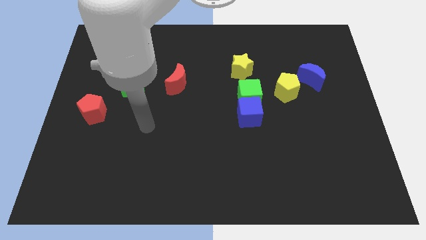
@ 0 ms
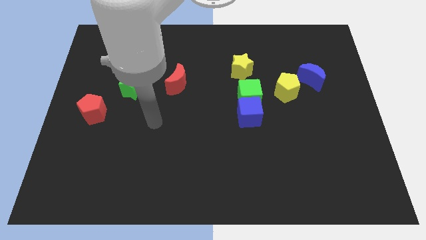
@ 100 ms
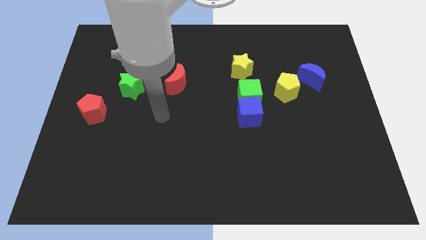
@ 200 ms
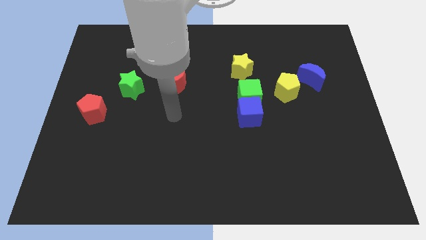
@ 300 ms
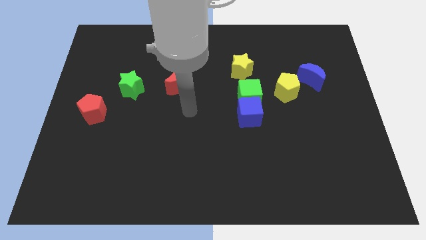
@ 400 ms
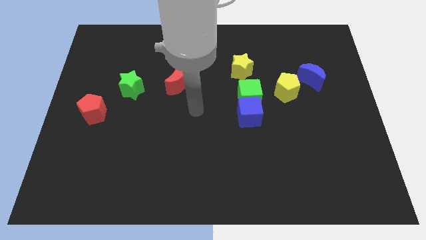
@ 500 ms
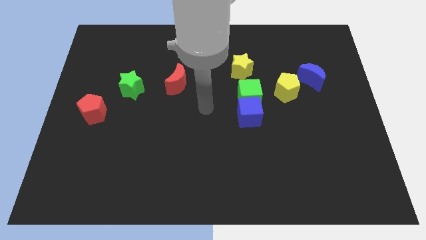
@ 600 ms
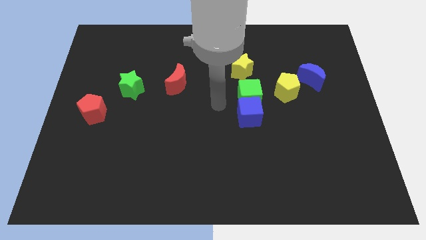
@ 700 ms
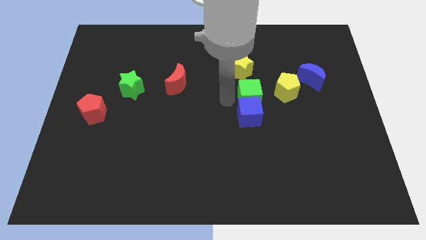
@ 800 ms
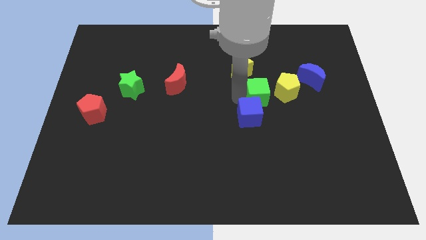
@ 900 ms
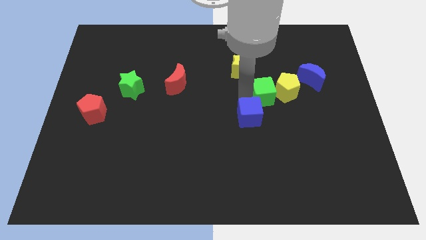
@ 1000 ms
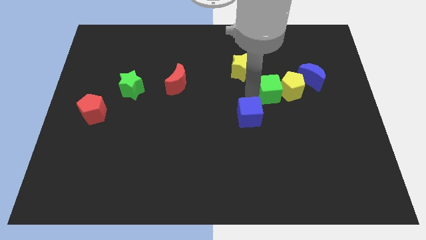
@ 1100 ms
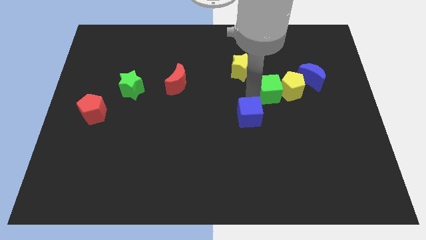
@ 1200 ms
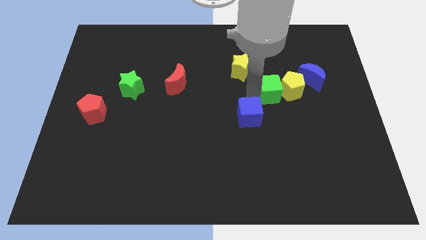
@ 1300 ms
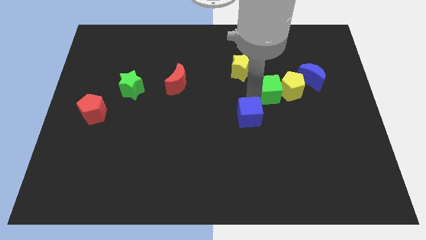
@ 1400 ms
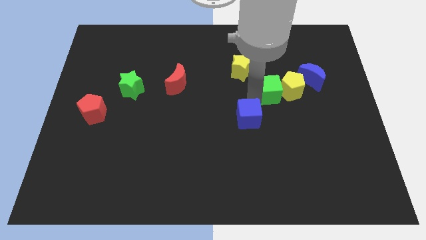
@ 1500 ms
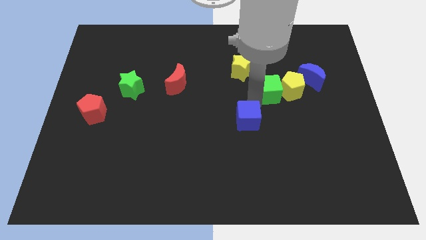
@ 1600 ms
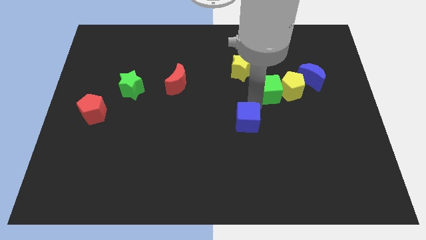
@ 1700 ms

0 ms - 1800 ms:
separate the blue cube from the green cube

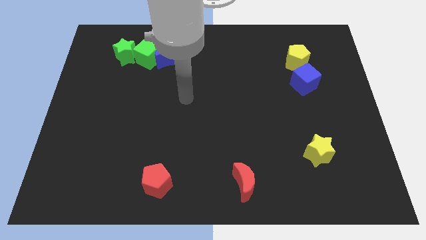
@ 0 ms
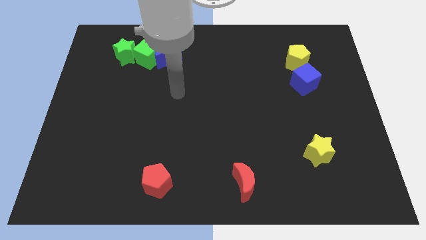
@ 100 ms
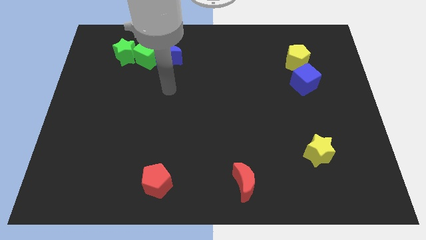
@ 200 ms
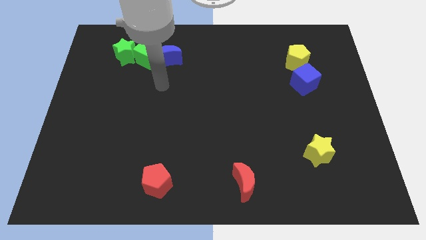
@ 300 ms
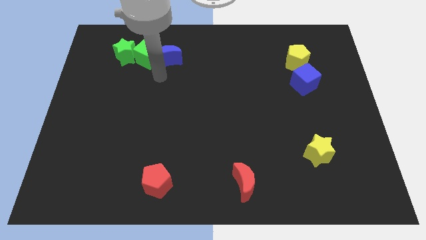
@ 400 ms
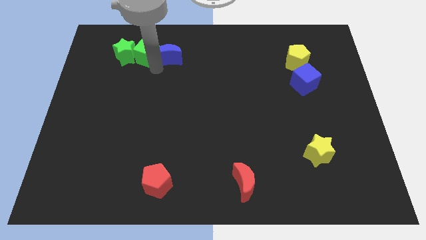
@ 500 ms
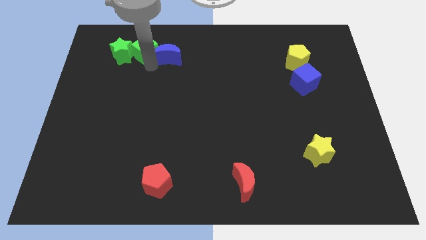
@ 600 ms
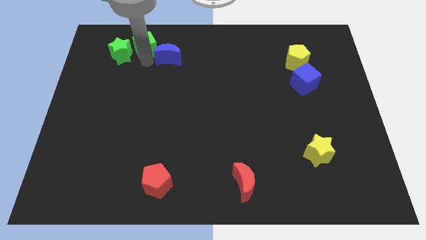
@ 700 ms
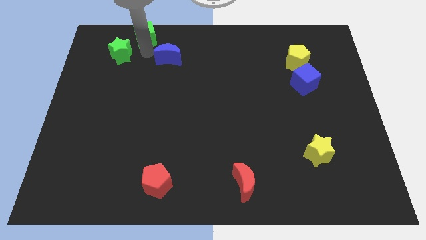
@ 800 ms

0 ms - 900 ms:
separate the blue moon from the green cube

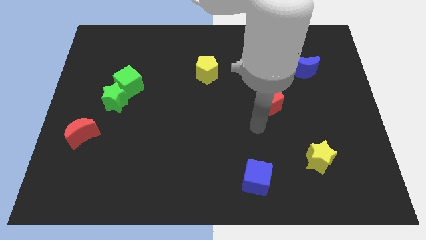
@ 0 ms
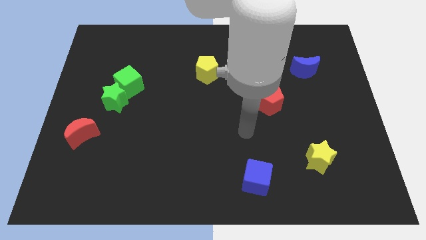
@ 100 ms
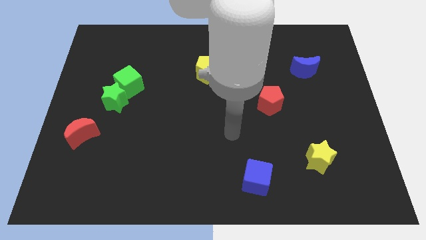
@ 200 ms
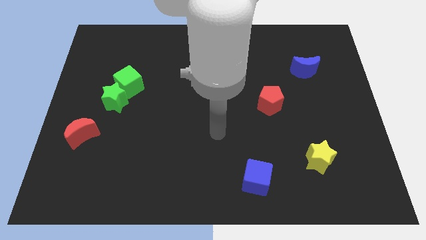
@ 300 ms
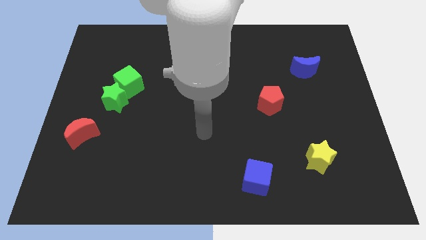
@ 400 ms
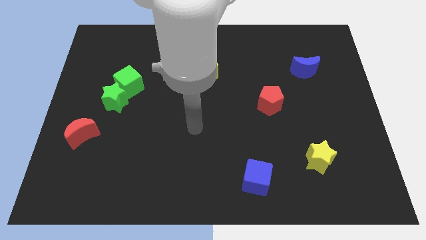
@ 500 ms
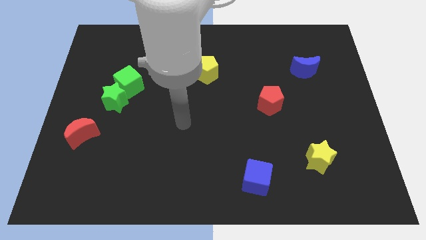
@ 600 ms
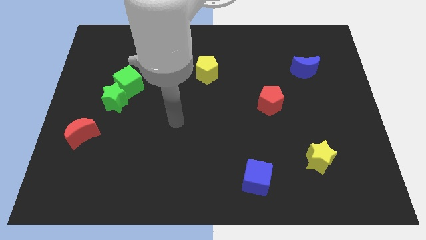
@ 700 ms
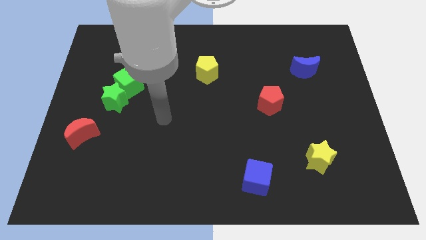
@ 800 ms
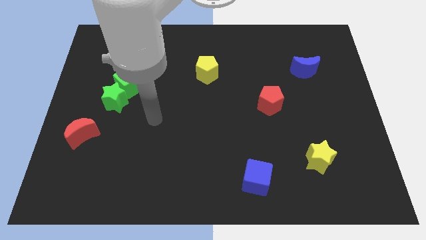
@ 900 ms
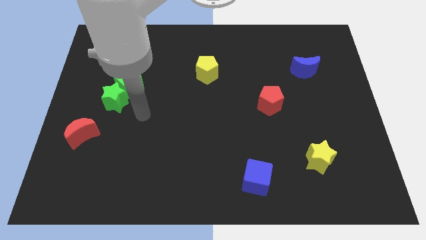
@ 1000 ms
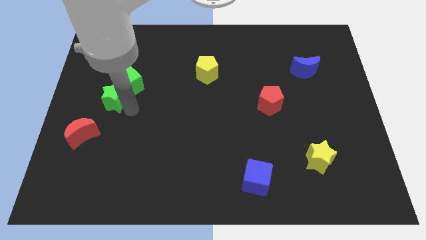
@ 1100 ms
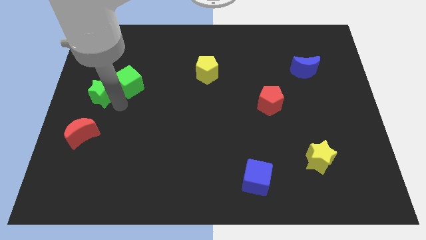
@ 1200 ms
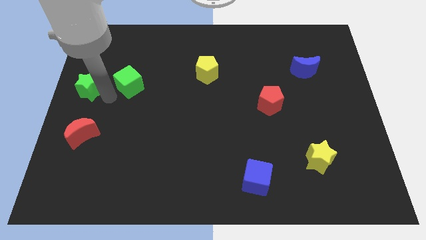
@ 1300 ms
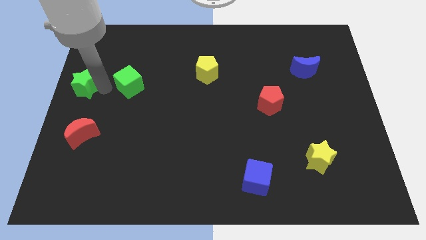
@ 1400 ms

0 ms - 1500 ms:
pull the green cube apart from the green star

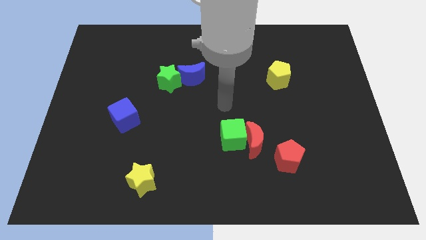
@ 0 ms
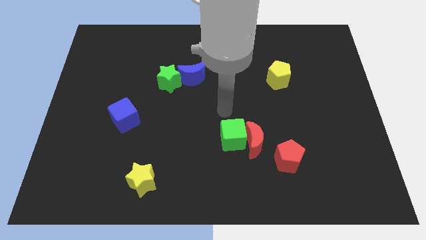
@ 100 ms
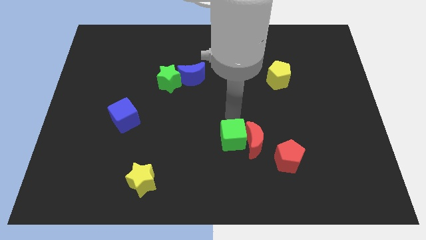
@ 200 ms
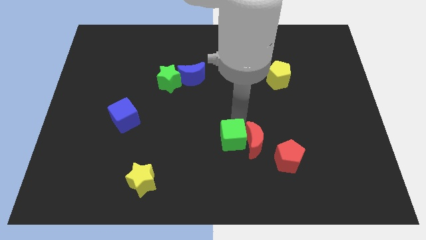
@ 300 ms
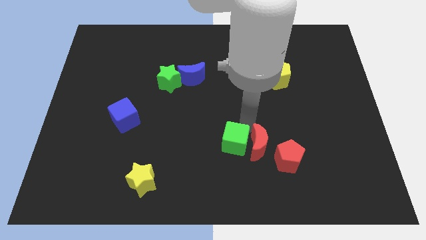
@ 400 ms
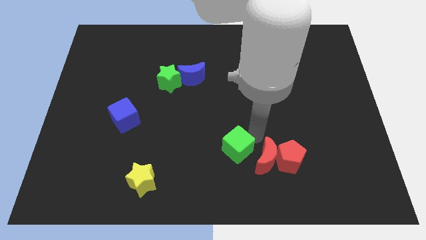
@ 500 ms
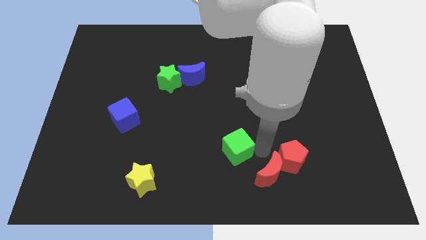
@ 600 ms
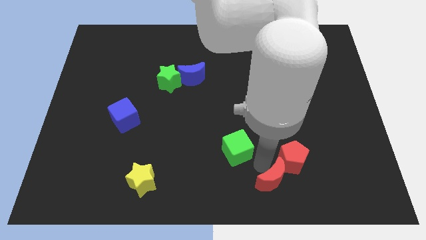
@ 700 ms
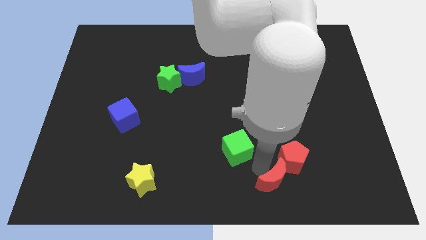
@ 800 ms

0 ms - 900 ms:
pull the green cube apart from the red moon

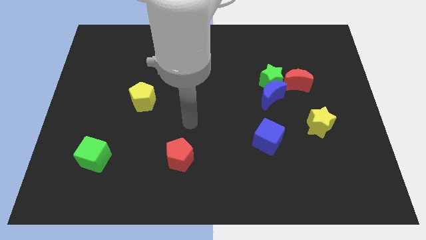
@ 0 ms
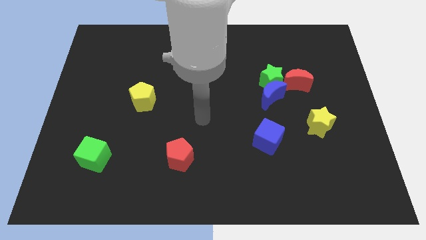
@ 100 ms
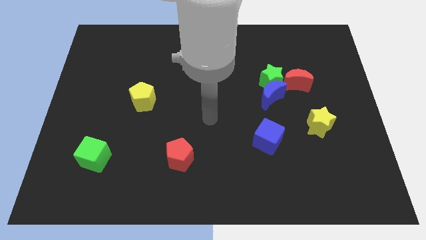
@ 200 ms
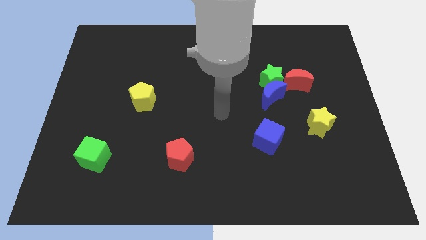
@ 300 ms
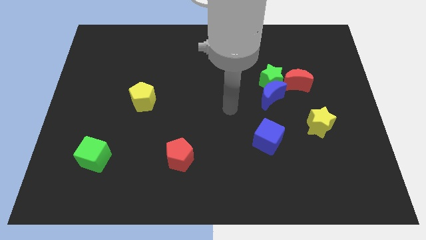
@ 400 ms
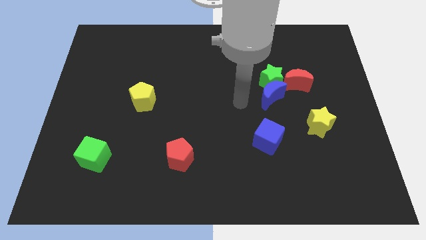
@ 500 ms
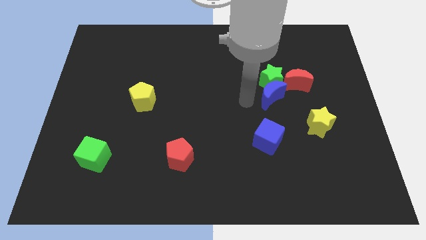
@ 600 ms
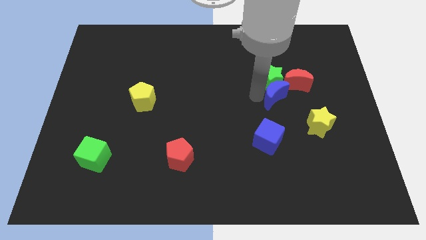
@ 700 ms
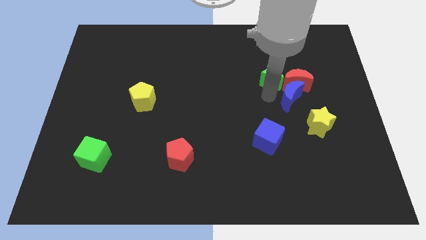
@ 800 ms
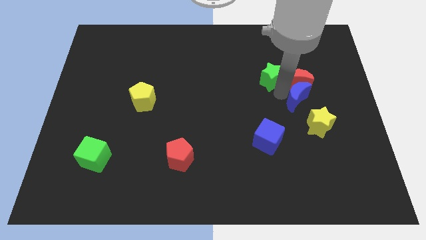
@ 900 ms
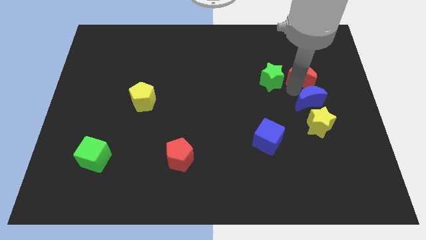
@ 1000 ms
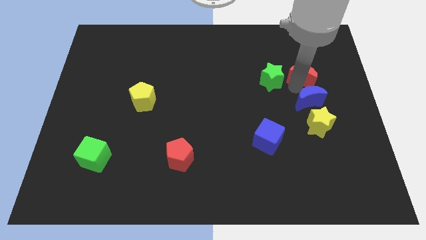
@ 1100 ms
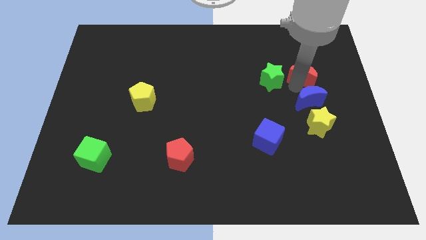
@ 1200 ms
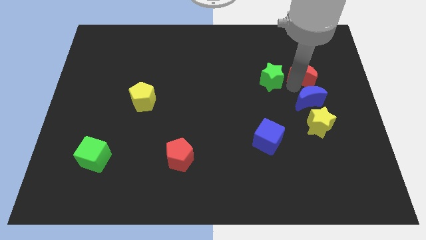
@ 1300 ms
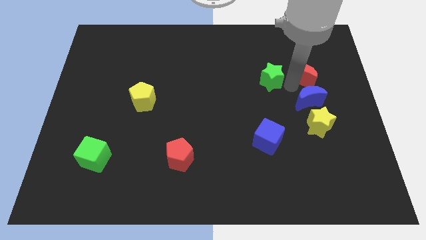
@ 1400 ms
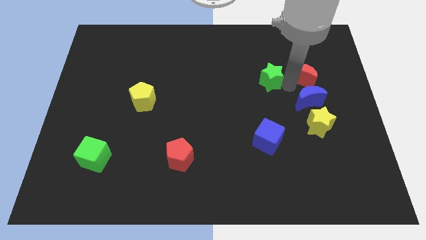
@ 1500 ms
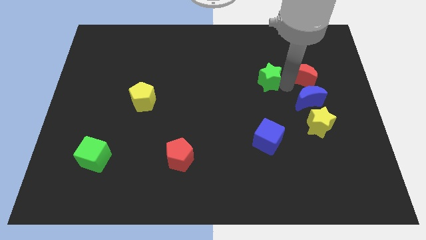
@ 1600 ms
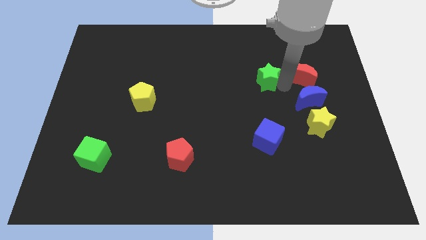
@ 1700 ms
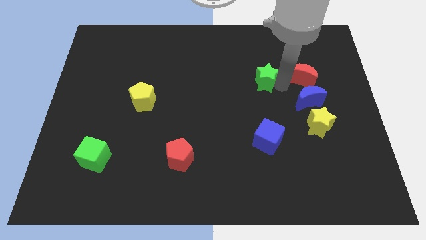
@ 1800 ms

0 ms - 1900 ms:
pull the green star apart from the blue moon and red moon

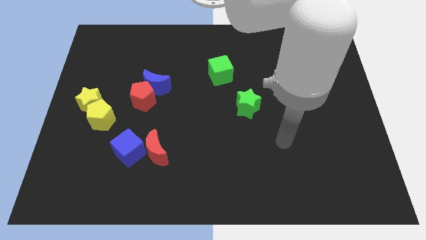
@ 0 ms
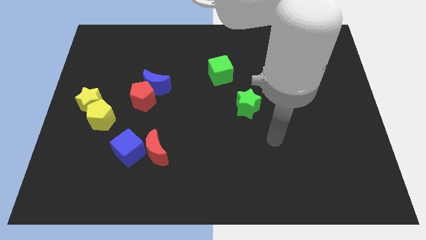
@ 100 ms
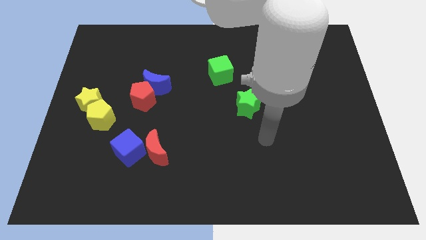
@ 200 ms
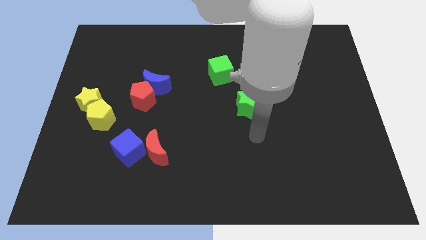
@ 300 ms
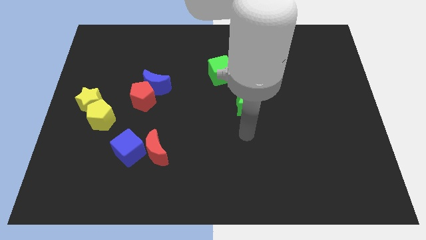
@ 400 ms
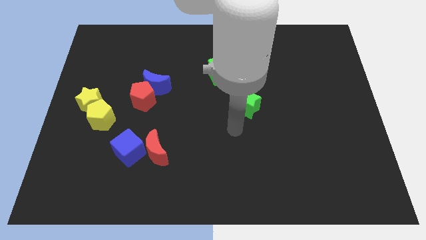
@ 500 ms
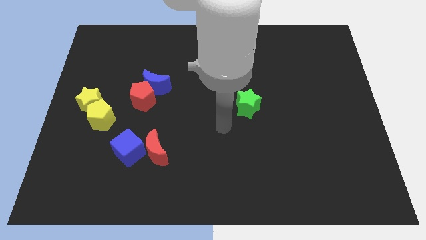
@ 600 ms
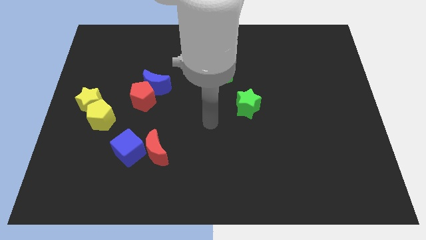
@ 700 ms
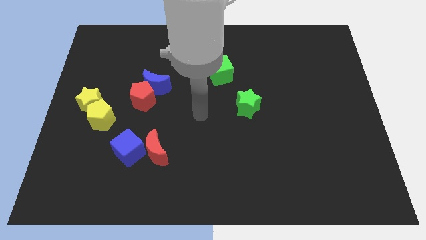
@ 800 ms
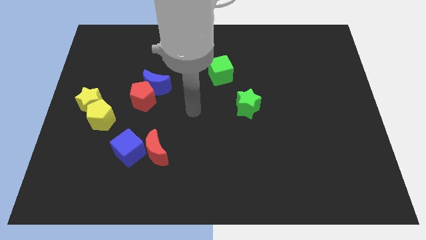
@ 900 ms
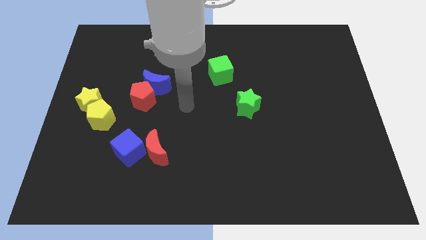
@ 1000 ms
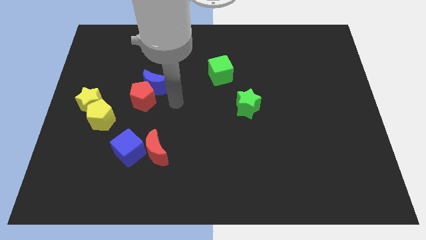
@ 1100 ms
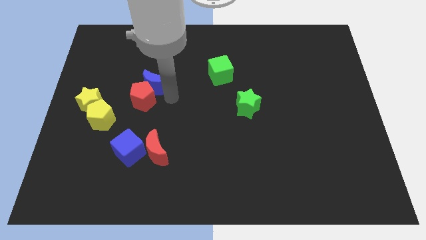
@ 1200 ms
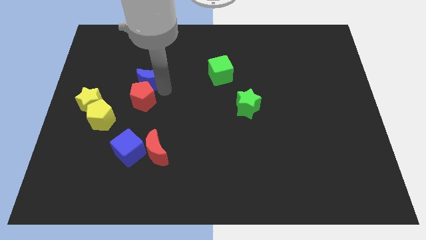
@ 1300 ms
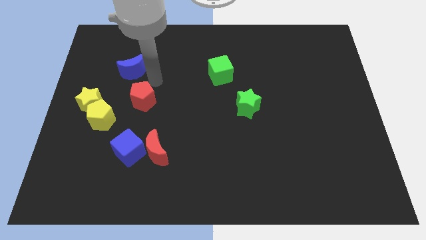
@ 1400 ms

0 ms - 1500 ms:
separate the red pentagon from the blue moon

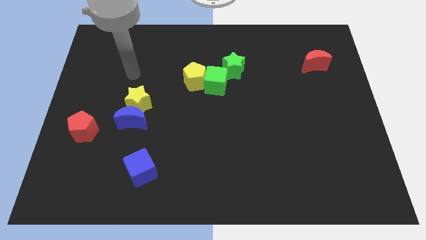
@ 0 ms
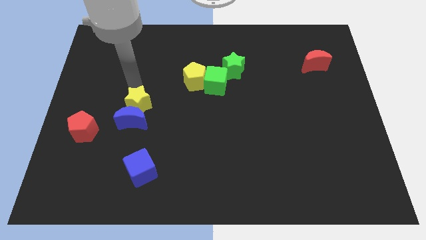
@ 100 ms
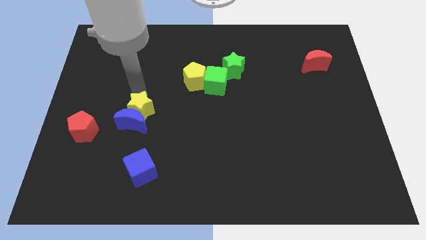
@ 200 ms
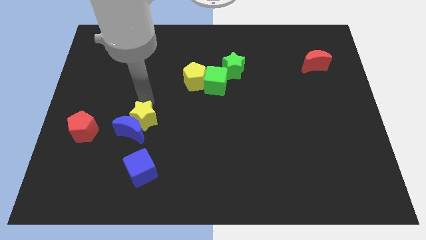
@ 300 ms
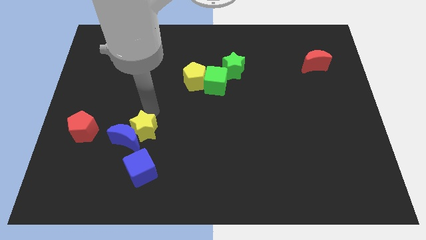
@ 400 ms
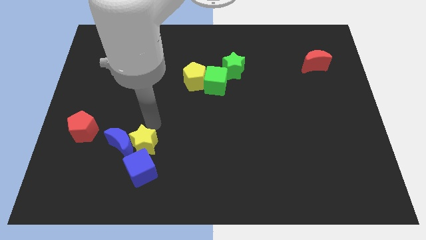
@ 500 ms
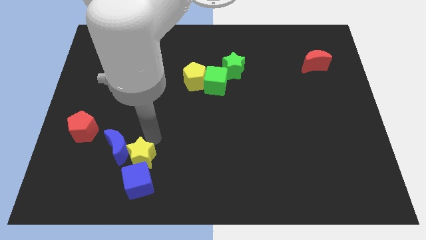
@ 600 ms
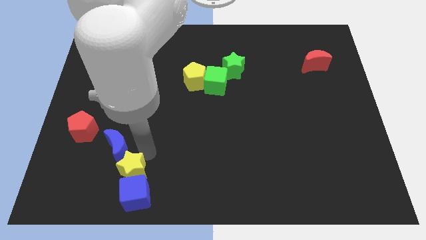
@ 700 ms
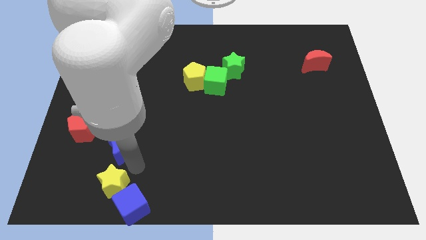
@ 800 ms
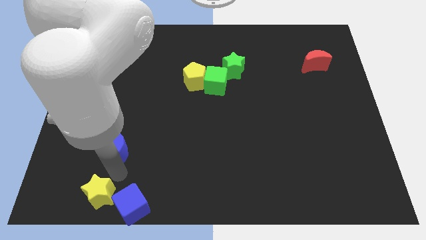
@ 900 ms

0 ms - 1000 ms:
move the blue moon away from the yellow star
